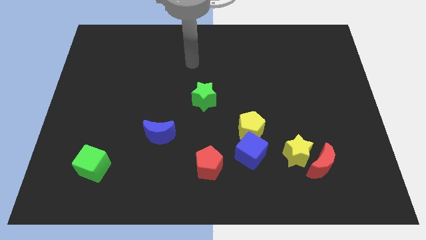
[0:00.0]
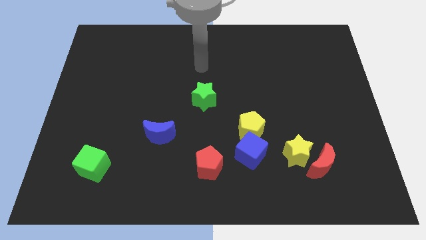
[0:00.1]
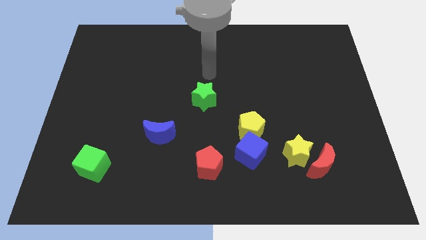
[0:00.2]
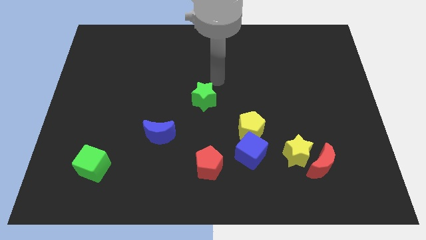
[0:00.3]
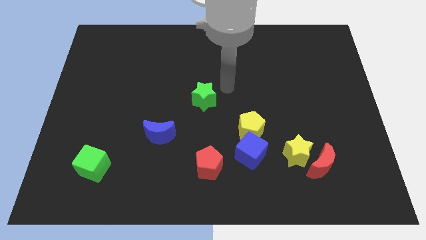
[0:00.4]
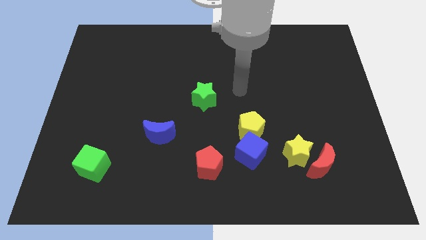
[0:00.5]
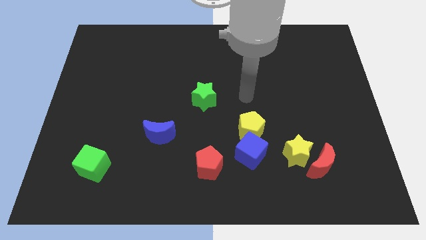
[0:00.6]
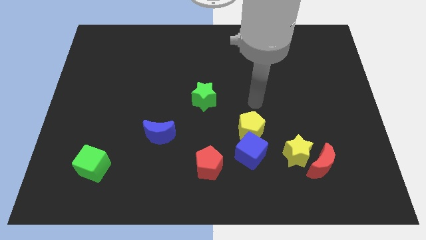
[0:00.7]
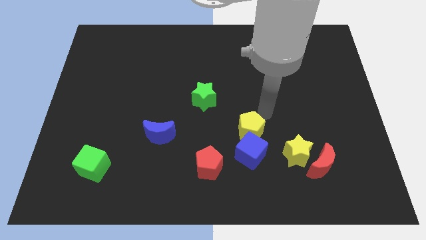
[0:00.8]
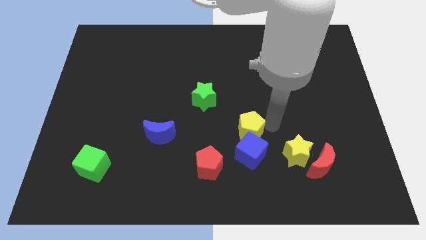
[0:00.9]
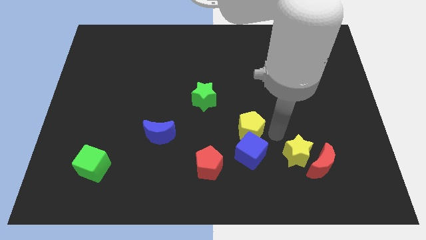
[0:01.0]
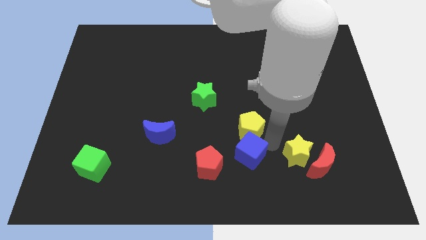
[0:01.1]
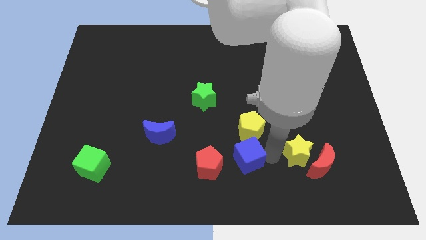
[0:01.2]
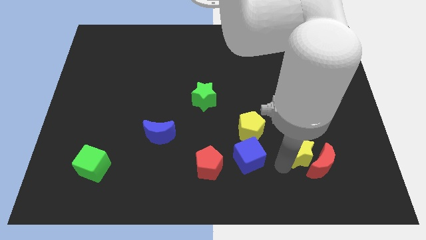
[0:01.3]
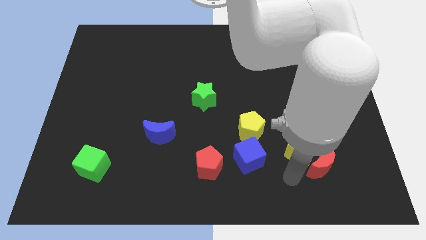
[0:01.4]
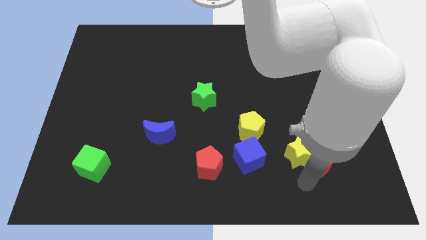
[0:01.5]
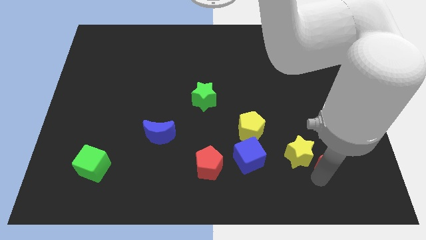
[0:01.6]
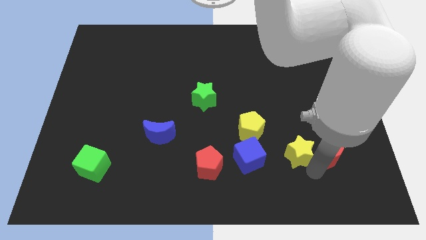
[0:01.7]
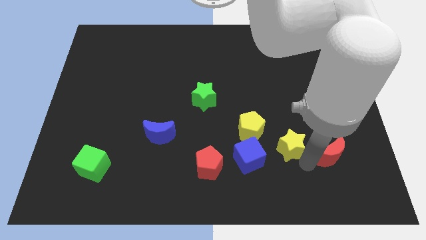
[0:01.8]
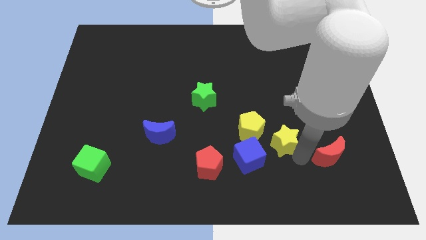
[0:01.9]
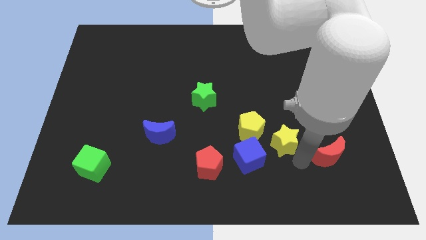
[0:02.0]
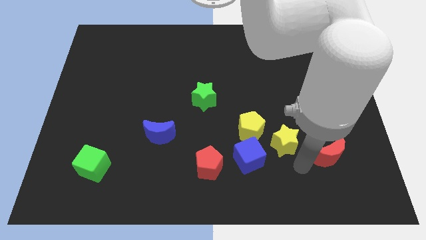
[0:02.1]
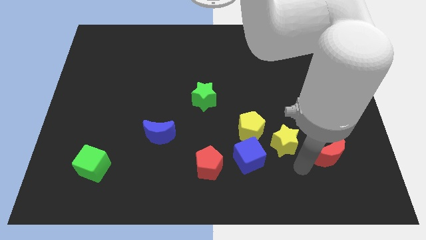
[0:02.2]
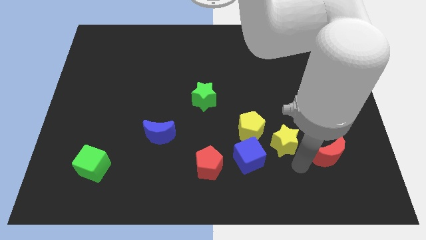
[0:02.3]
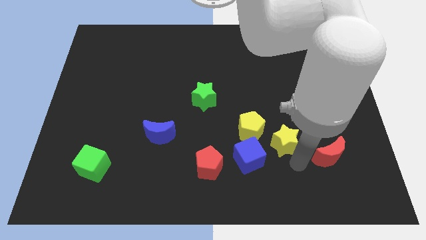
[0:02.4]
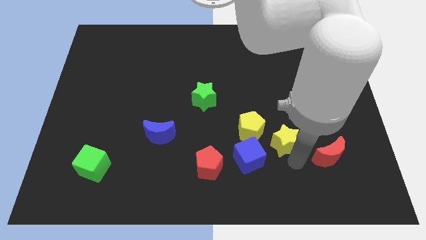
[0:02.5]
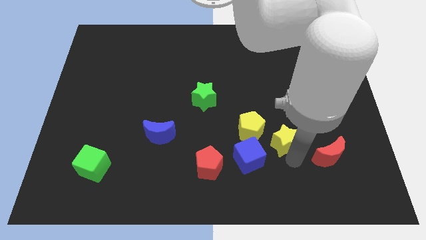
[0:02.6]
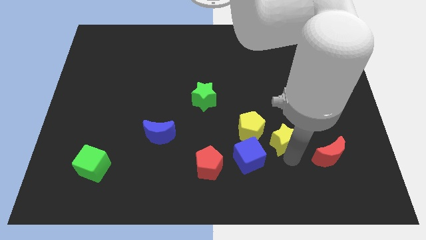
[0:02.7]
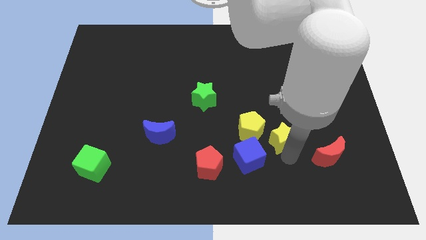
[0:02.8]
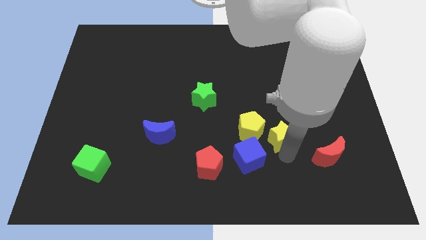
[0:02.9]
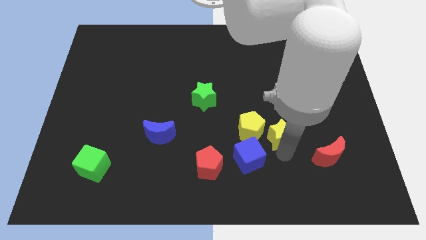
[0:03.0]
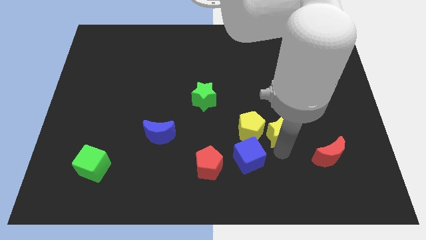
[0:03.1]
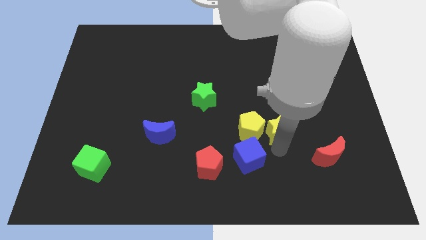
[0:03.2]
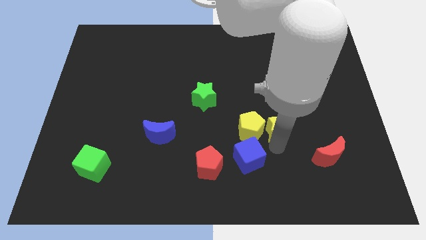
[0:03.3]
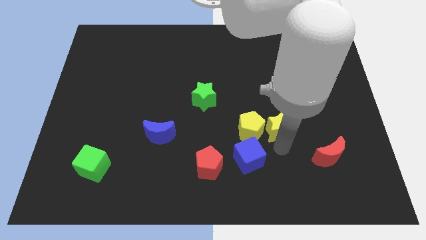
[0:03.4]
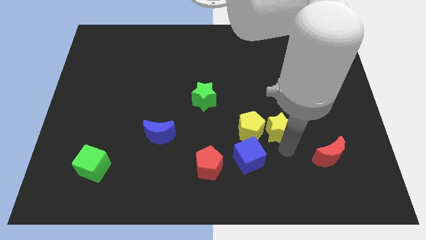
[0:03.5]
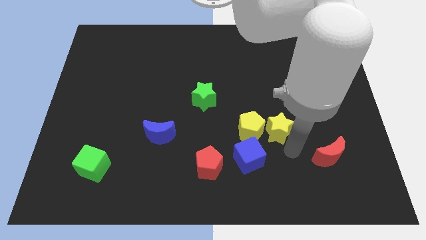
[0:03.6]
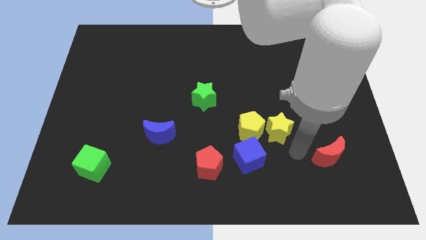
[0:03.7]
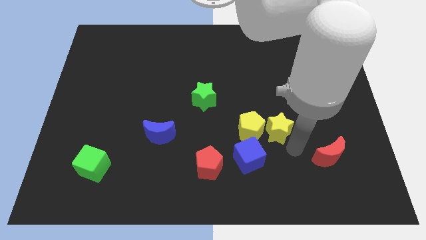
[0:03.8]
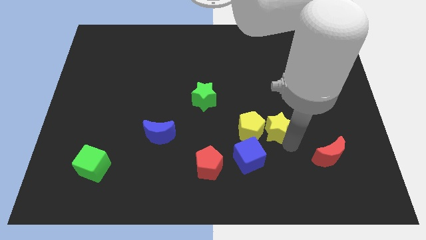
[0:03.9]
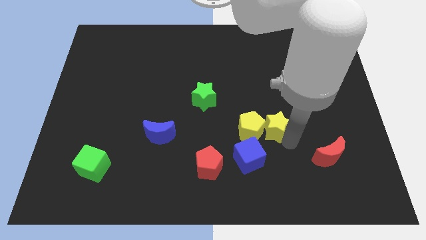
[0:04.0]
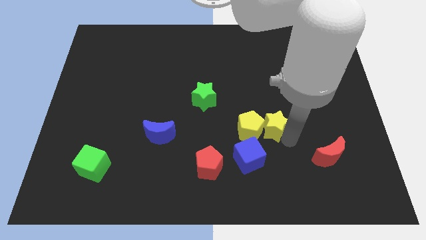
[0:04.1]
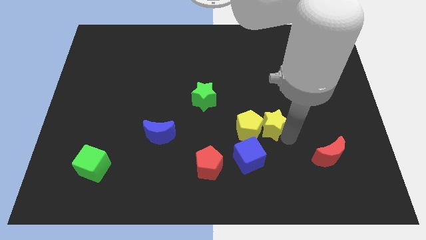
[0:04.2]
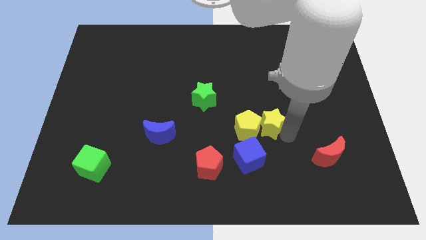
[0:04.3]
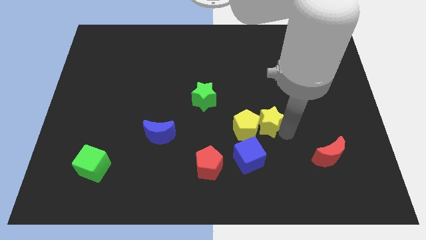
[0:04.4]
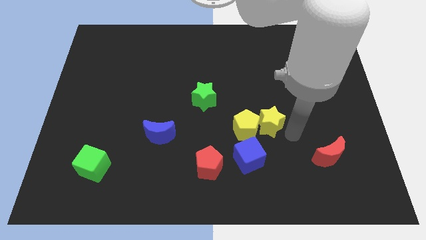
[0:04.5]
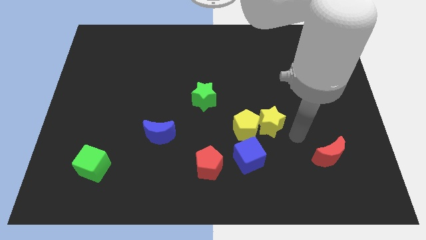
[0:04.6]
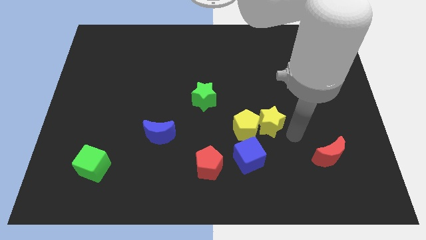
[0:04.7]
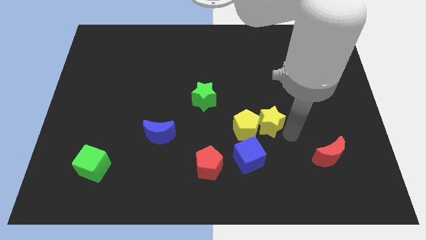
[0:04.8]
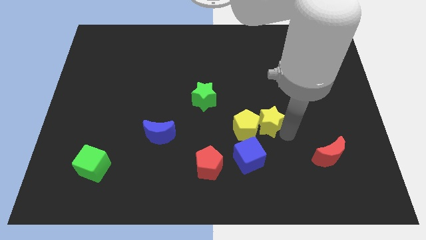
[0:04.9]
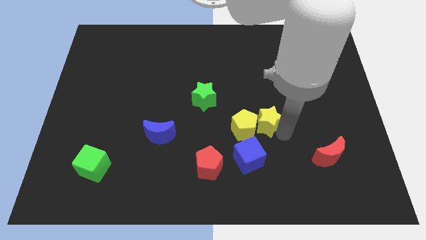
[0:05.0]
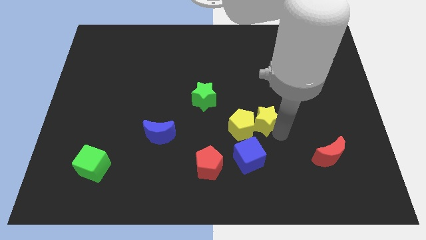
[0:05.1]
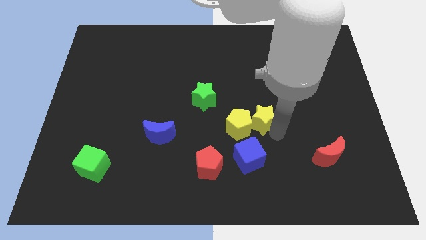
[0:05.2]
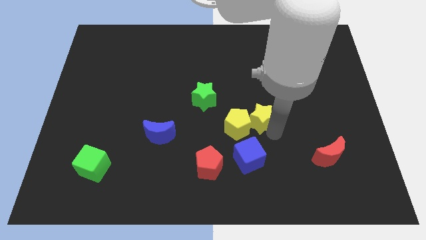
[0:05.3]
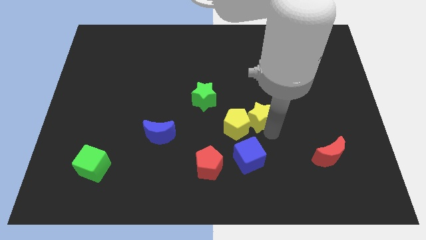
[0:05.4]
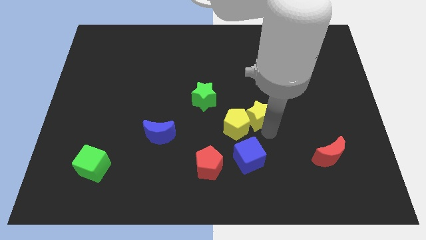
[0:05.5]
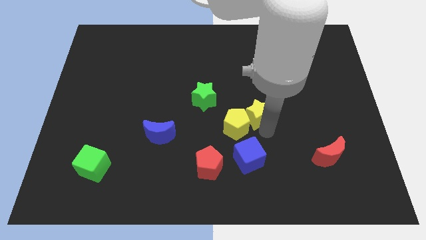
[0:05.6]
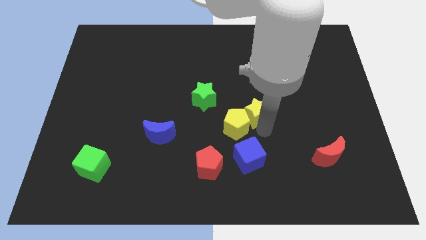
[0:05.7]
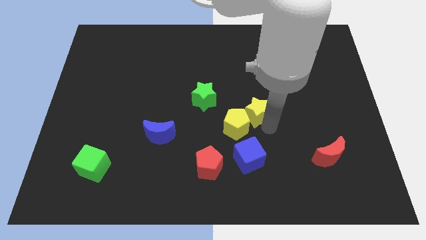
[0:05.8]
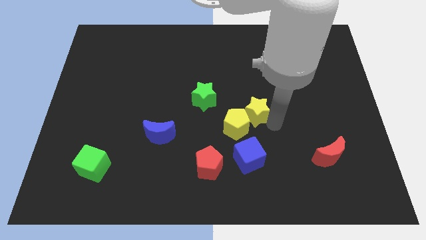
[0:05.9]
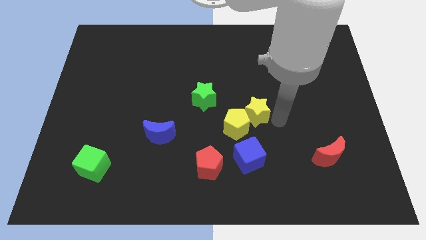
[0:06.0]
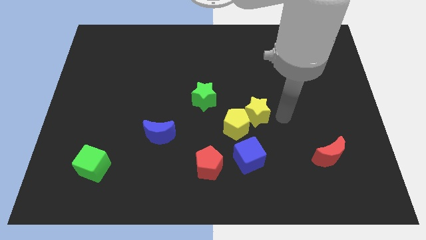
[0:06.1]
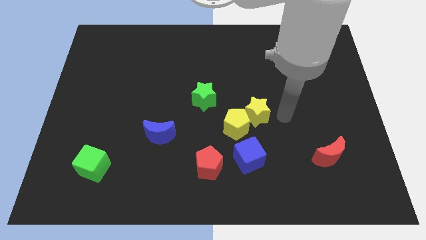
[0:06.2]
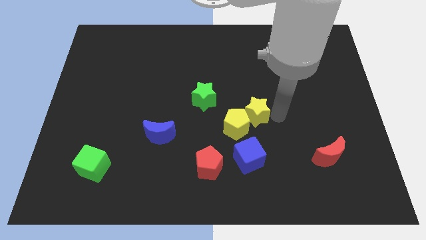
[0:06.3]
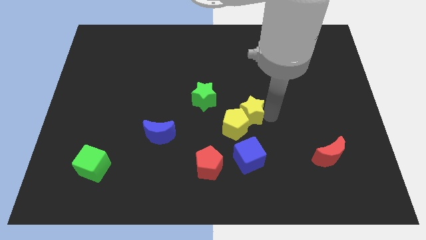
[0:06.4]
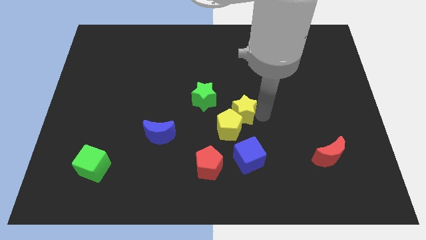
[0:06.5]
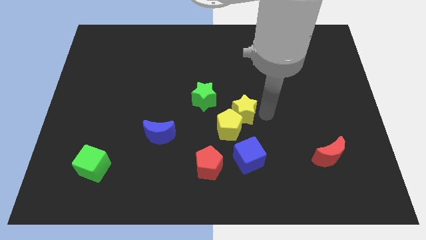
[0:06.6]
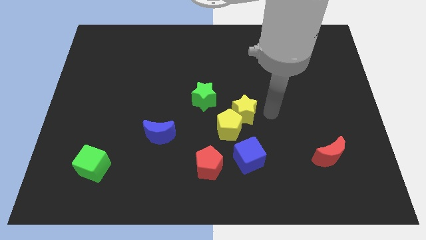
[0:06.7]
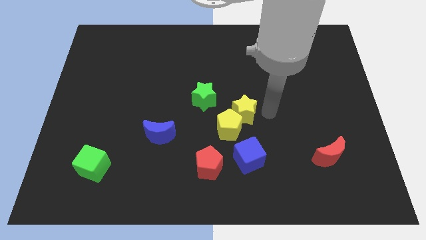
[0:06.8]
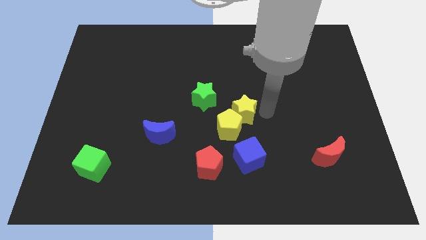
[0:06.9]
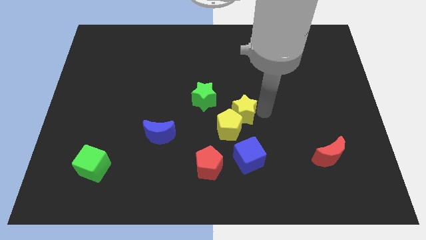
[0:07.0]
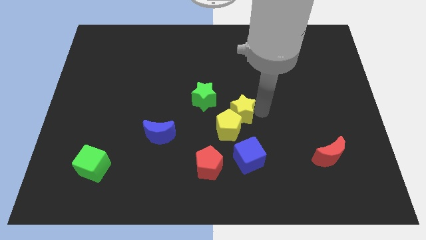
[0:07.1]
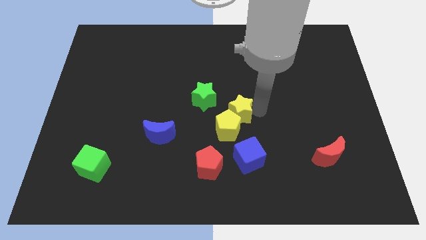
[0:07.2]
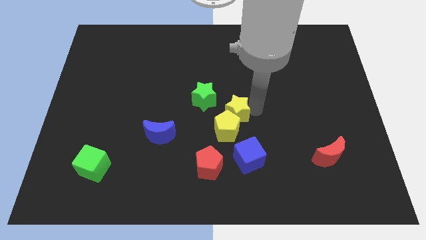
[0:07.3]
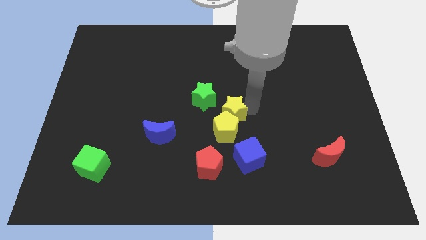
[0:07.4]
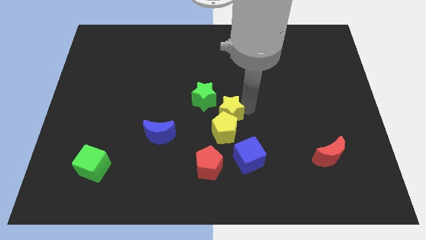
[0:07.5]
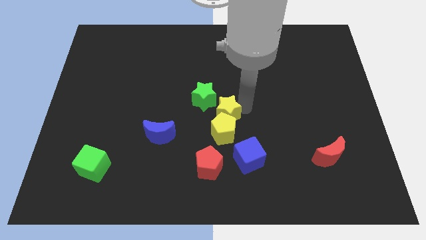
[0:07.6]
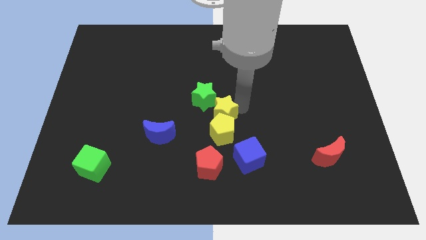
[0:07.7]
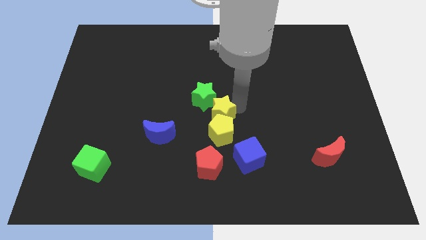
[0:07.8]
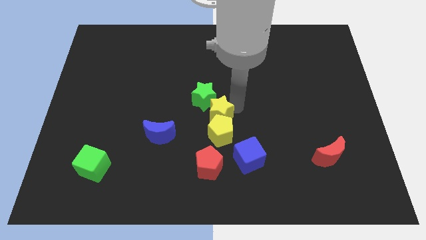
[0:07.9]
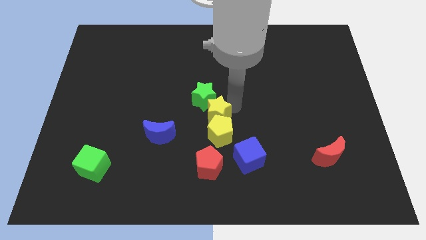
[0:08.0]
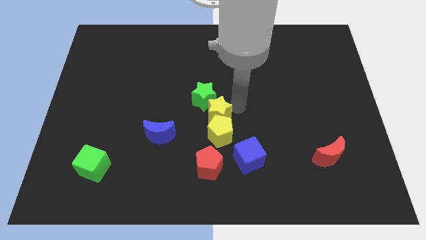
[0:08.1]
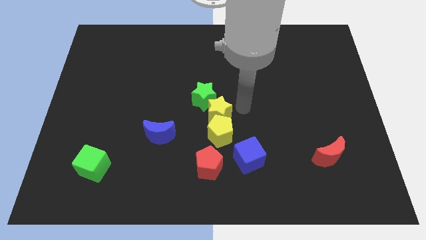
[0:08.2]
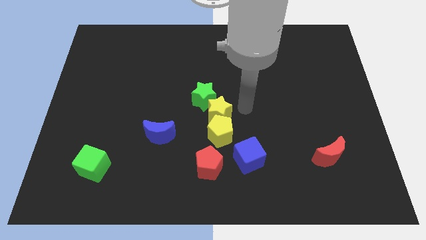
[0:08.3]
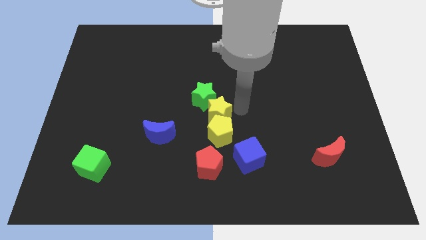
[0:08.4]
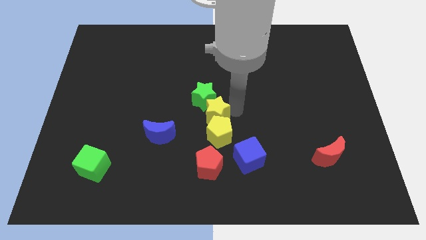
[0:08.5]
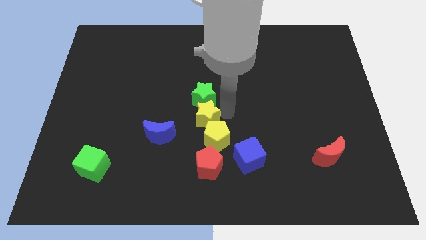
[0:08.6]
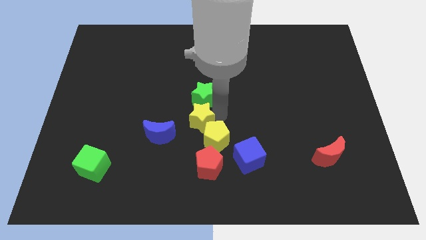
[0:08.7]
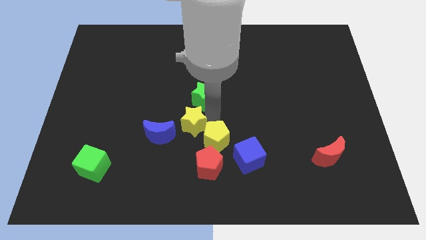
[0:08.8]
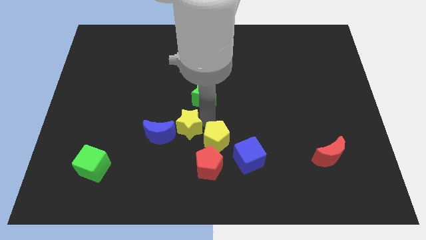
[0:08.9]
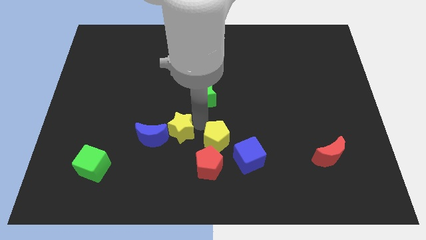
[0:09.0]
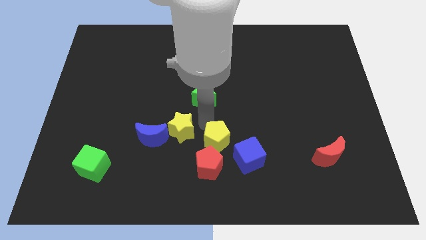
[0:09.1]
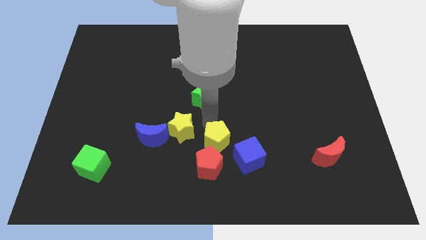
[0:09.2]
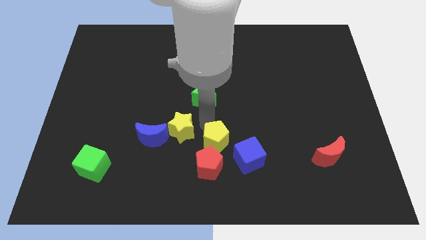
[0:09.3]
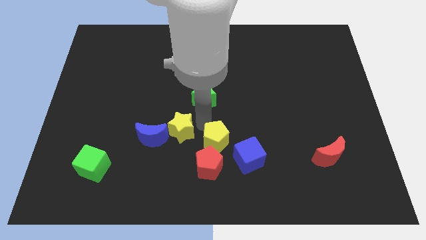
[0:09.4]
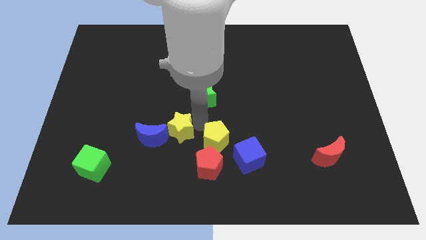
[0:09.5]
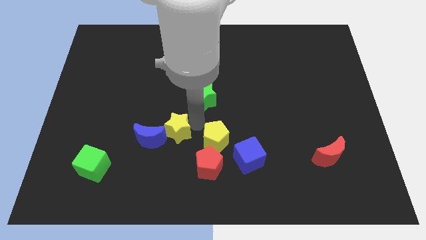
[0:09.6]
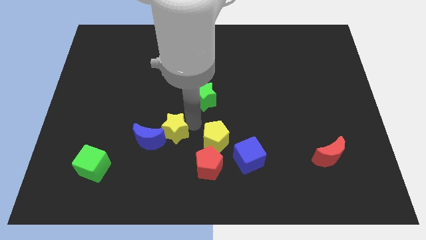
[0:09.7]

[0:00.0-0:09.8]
slide the yellow star next to the blue moon
